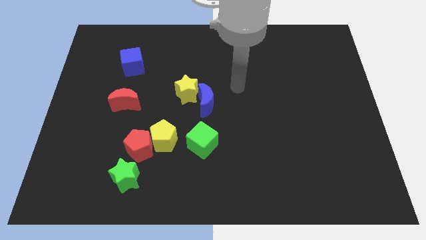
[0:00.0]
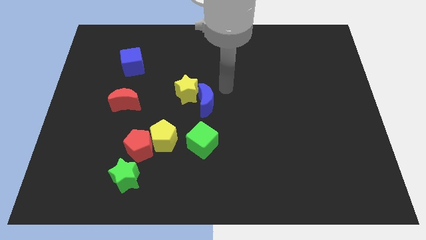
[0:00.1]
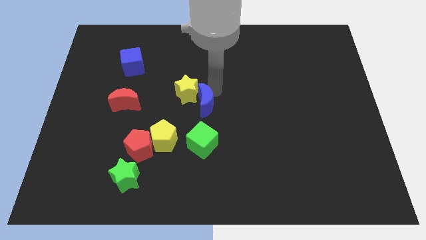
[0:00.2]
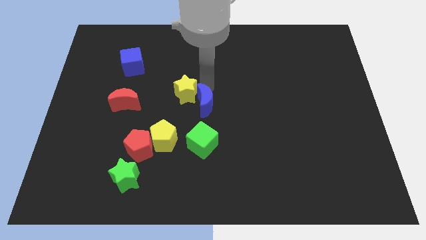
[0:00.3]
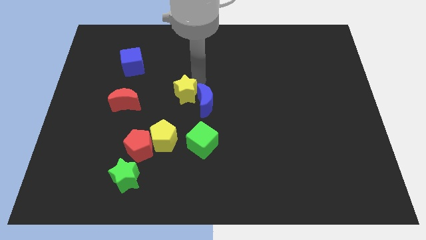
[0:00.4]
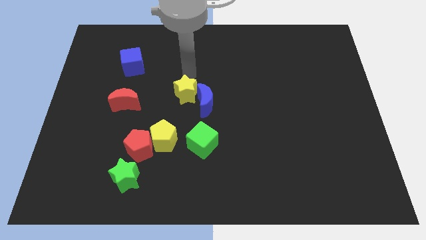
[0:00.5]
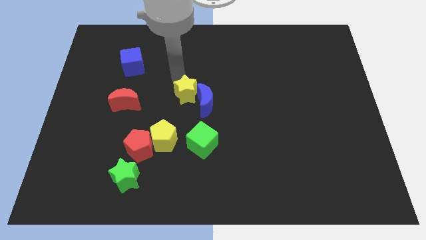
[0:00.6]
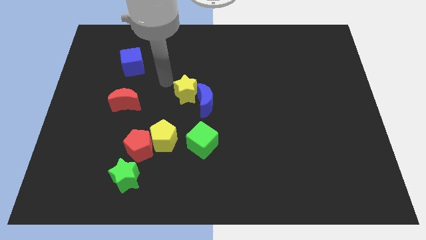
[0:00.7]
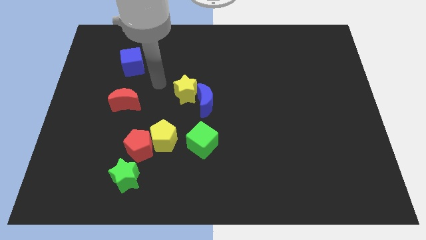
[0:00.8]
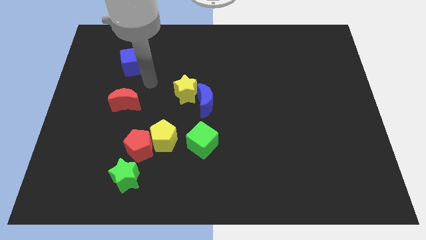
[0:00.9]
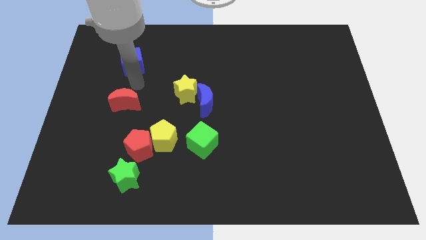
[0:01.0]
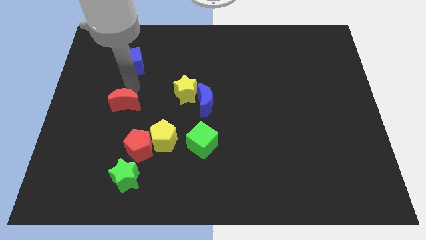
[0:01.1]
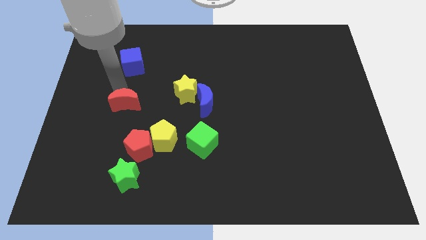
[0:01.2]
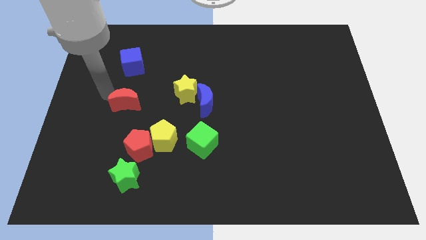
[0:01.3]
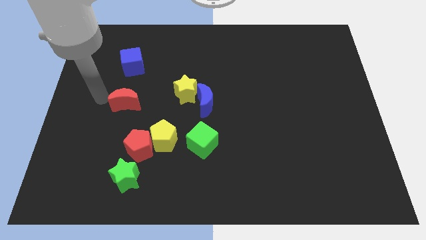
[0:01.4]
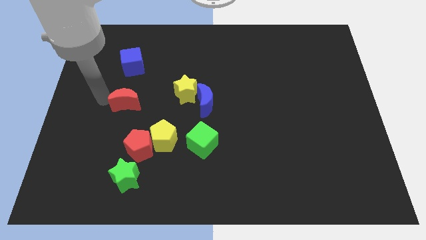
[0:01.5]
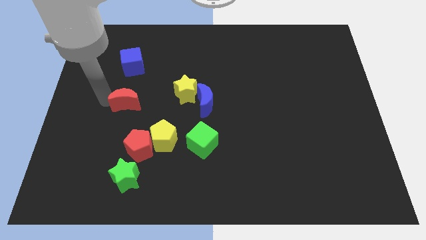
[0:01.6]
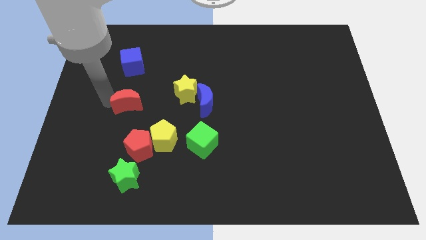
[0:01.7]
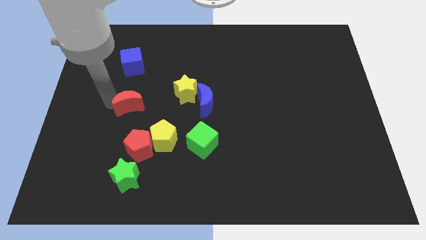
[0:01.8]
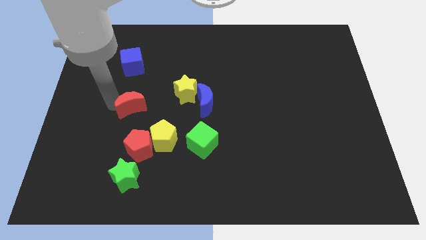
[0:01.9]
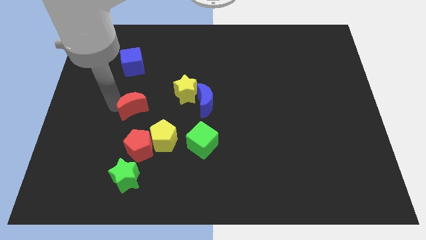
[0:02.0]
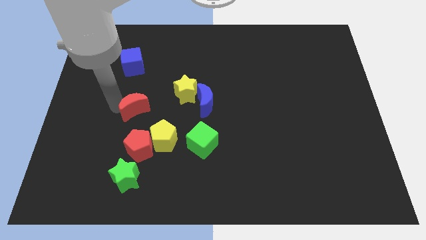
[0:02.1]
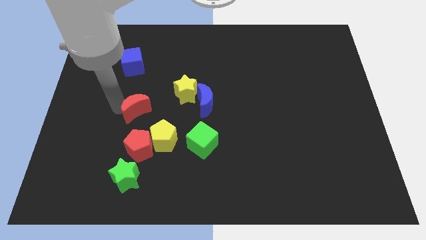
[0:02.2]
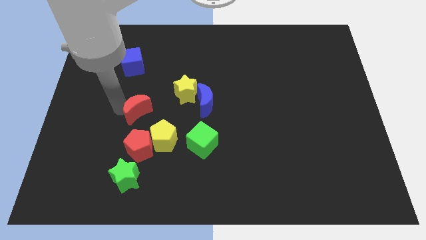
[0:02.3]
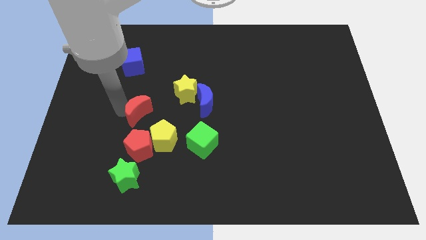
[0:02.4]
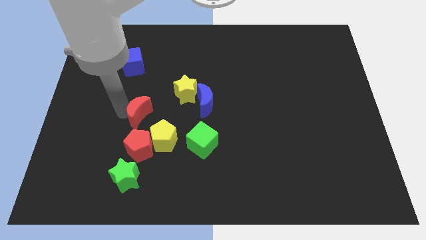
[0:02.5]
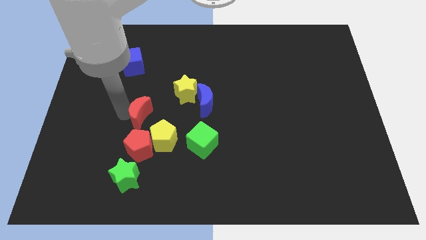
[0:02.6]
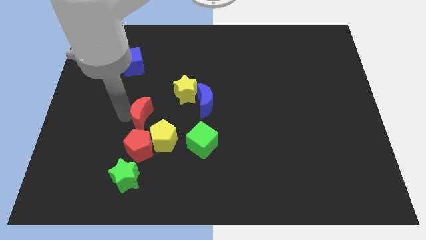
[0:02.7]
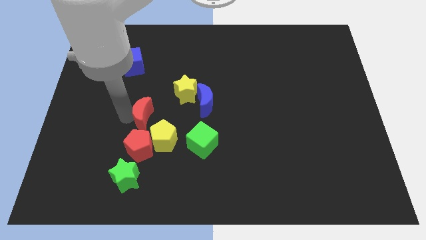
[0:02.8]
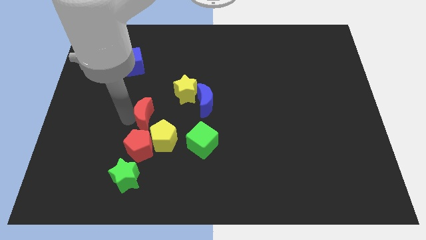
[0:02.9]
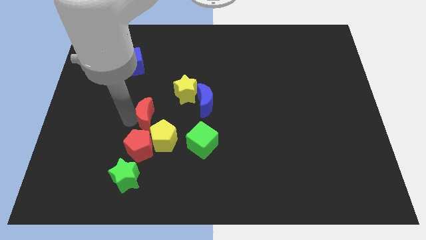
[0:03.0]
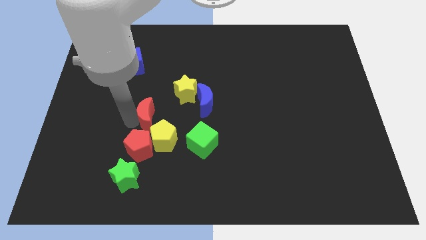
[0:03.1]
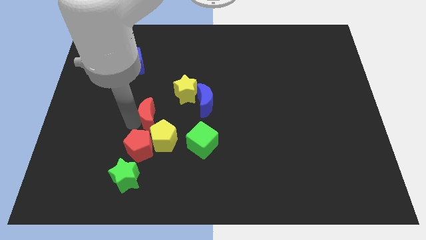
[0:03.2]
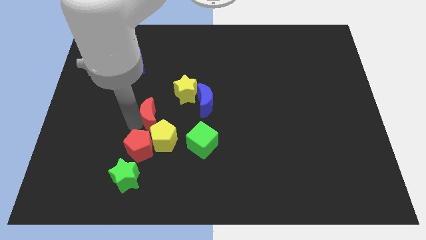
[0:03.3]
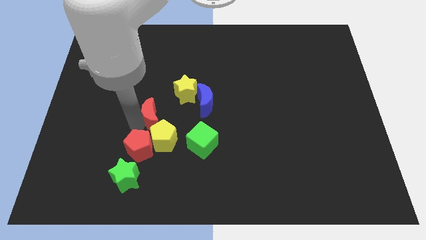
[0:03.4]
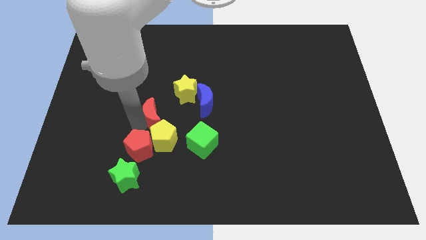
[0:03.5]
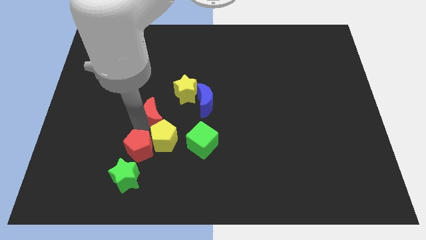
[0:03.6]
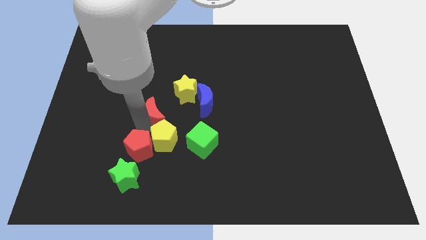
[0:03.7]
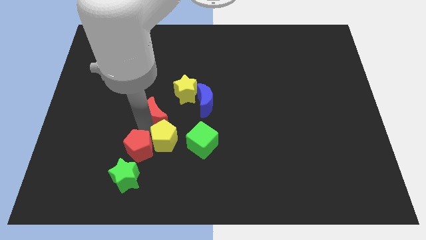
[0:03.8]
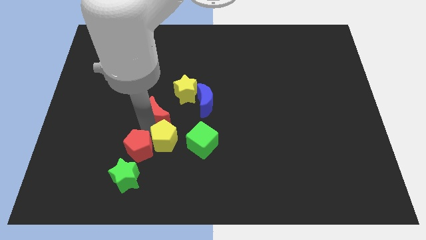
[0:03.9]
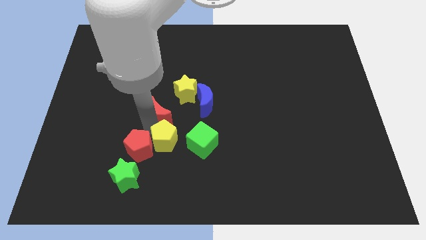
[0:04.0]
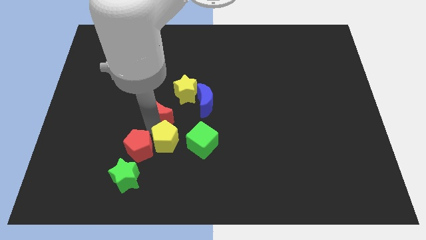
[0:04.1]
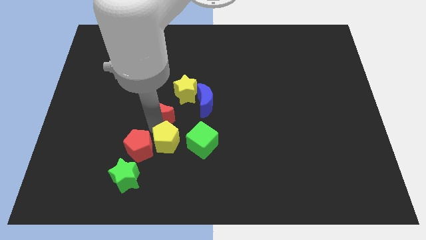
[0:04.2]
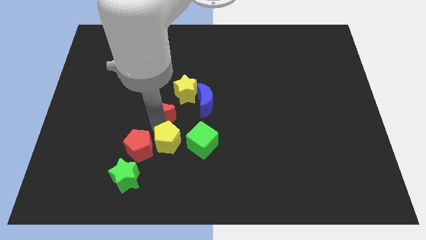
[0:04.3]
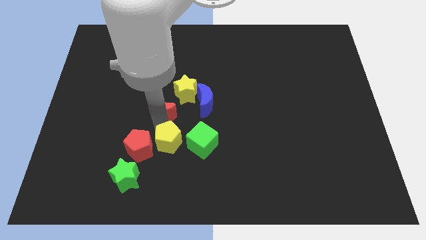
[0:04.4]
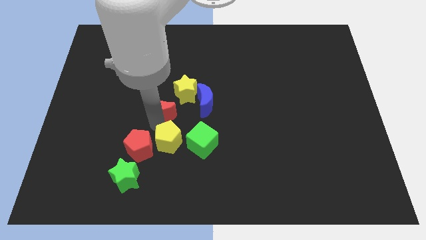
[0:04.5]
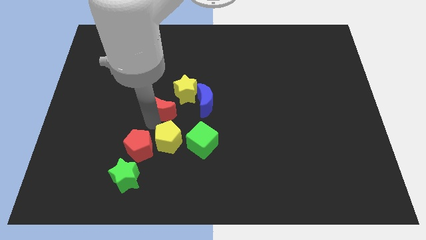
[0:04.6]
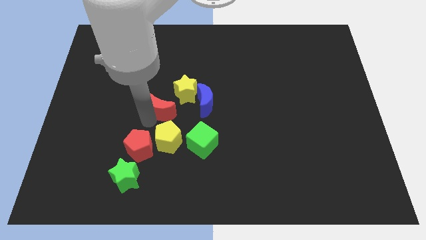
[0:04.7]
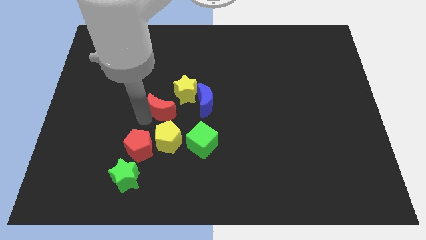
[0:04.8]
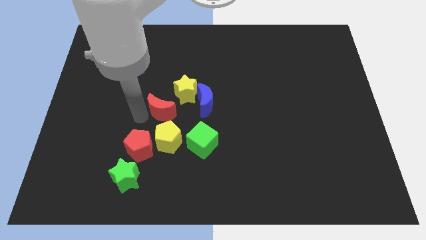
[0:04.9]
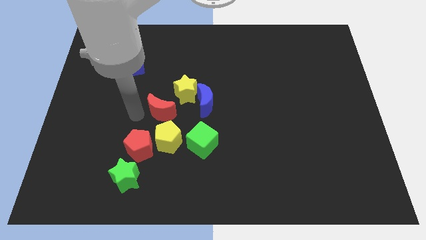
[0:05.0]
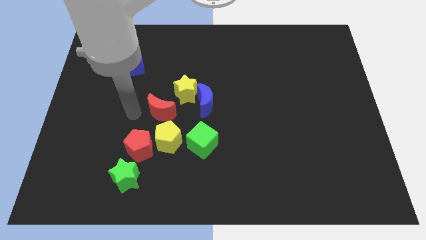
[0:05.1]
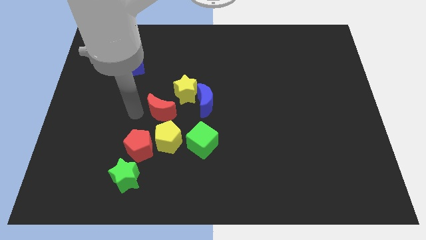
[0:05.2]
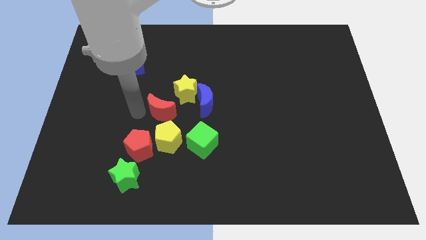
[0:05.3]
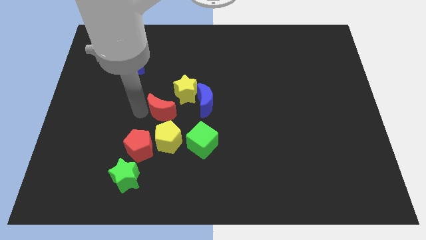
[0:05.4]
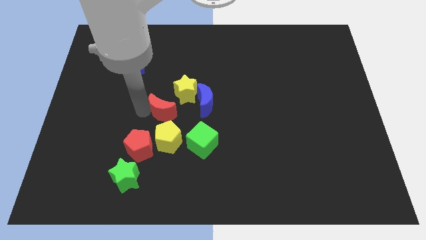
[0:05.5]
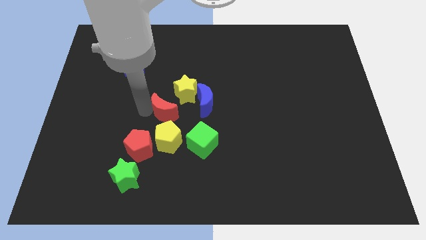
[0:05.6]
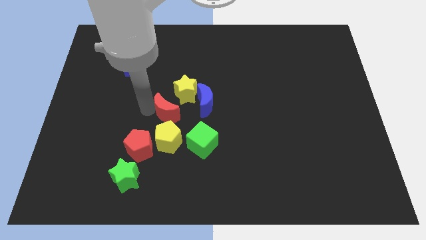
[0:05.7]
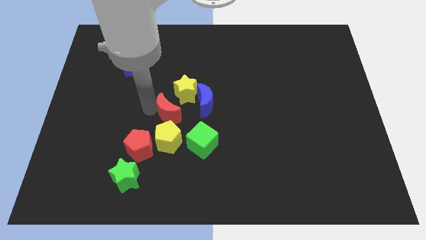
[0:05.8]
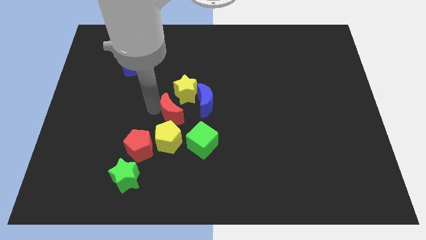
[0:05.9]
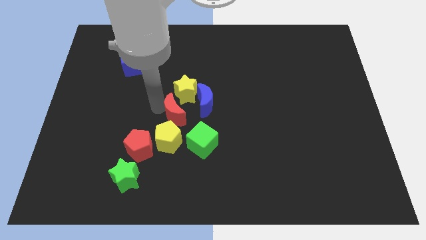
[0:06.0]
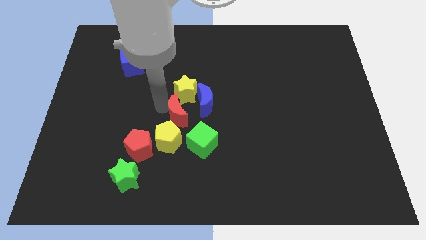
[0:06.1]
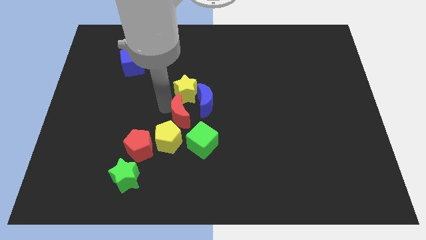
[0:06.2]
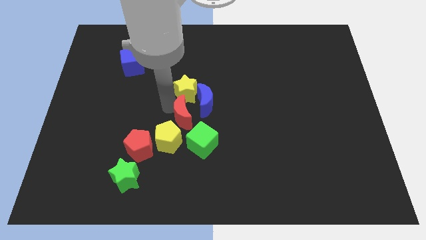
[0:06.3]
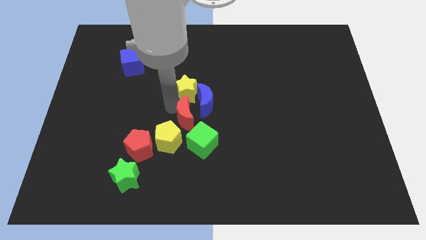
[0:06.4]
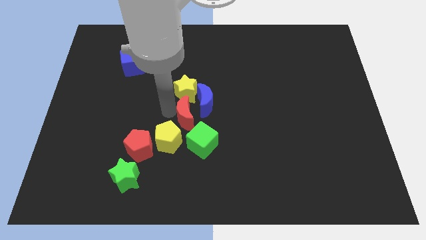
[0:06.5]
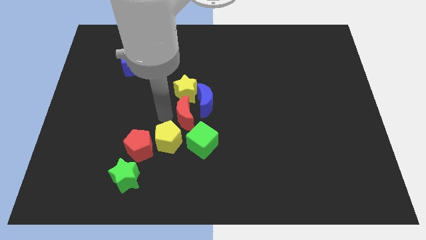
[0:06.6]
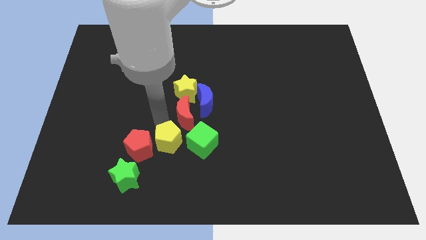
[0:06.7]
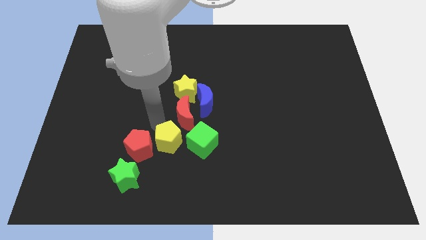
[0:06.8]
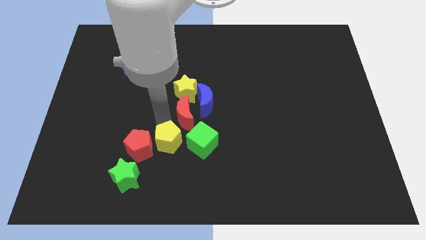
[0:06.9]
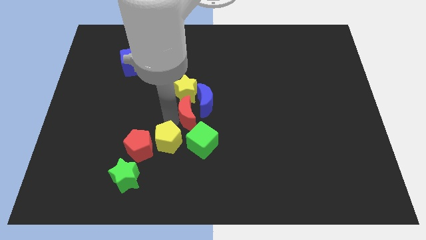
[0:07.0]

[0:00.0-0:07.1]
slide the red moon diagonally down and to the right of the yellow star

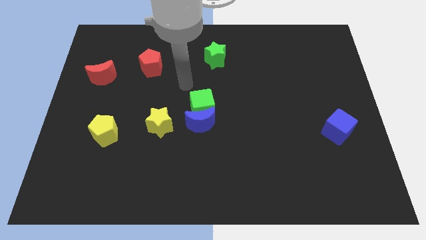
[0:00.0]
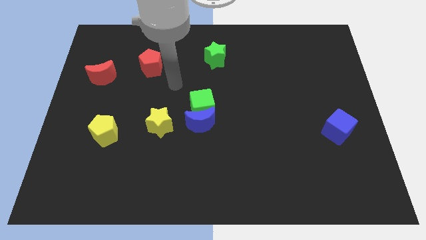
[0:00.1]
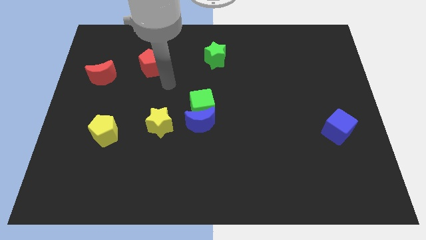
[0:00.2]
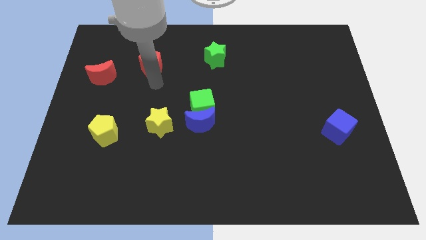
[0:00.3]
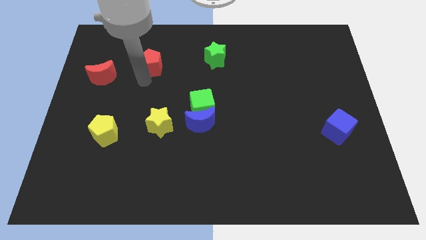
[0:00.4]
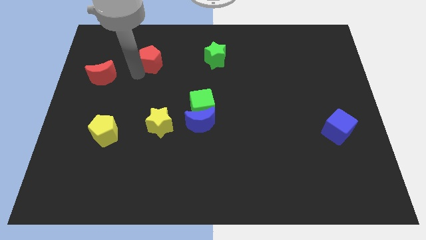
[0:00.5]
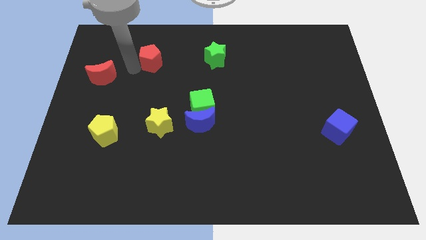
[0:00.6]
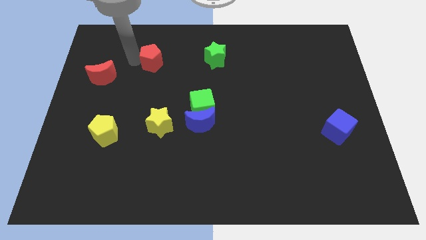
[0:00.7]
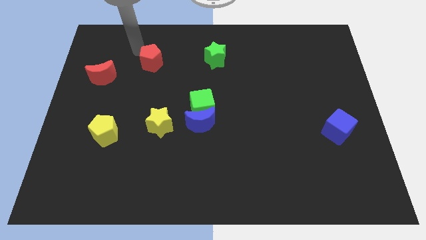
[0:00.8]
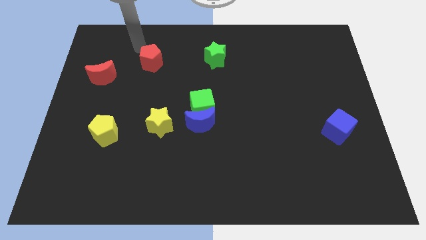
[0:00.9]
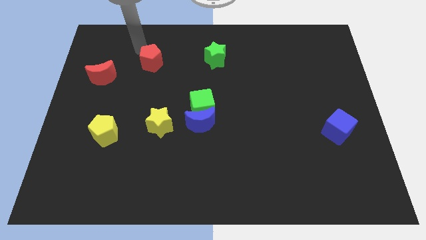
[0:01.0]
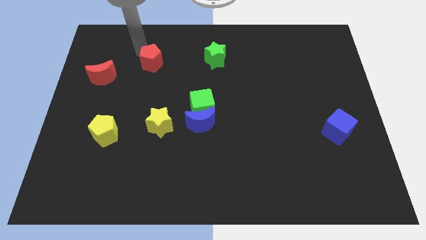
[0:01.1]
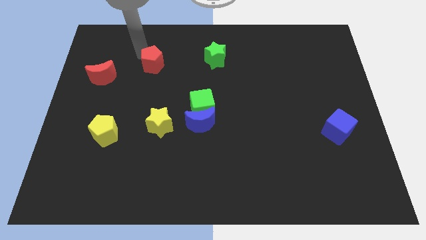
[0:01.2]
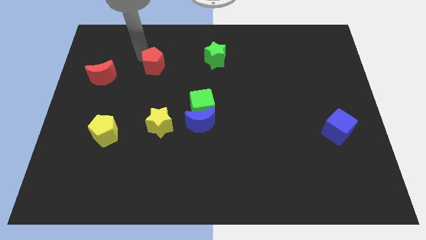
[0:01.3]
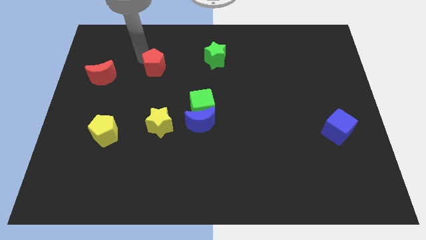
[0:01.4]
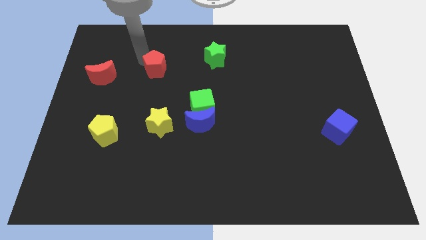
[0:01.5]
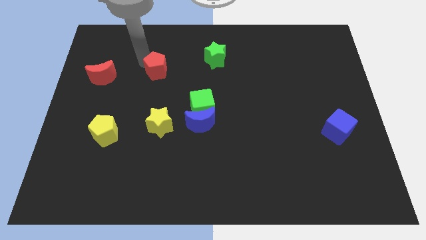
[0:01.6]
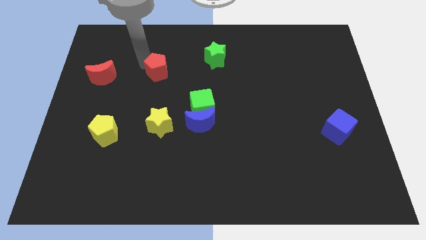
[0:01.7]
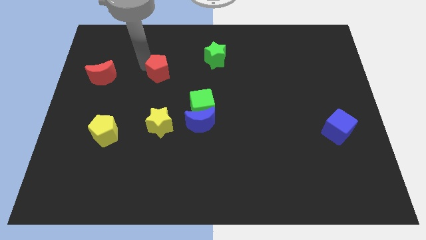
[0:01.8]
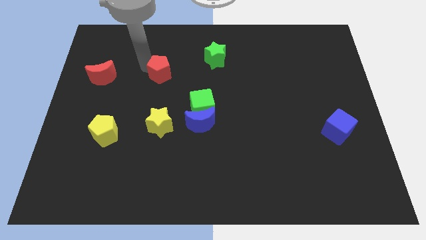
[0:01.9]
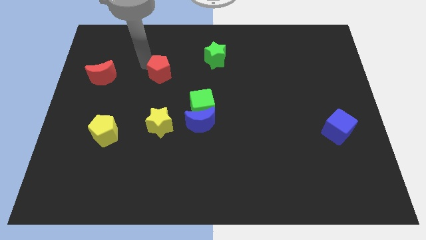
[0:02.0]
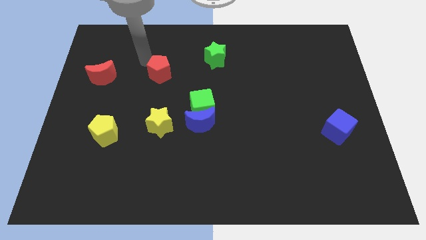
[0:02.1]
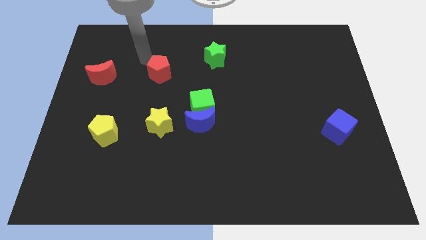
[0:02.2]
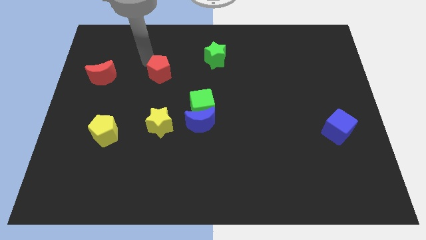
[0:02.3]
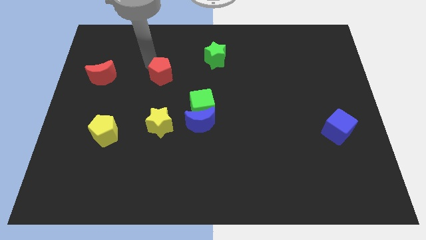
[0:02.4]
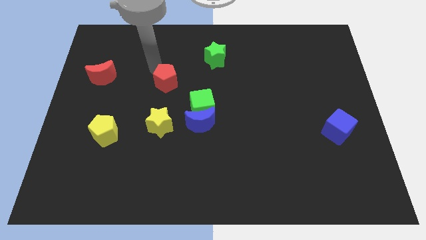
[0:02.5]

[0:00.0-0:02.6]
put the red pentagon to the top left of the green cube
